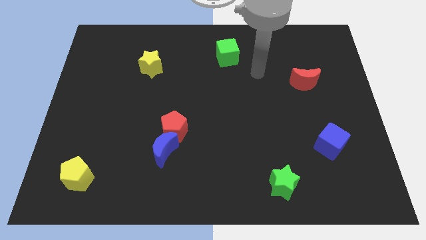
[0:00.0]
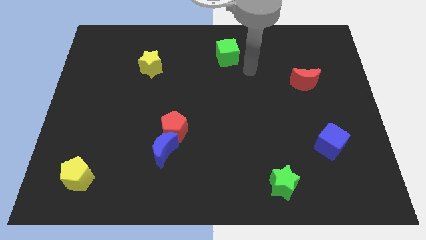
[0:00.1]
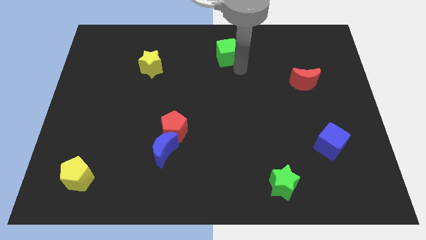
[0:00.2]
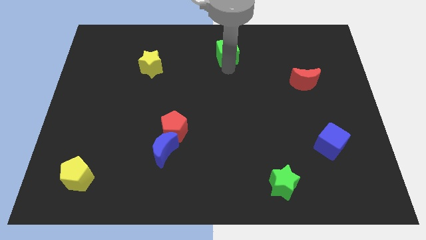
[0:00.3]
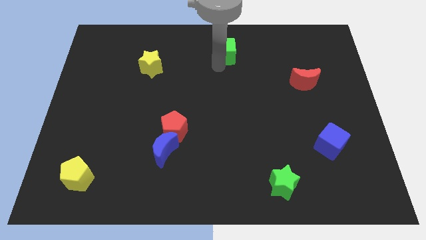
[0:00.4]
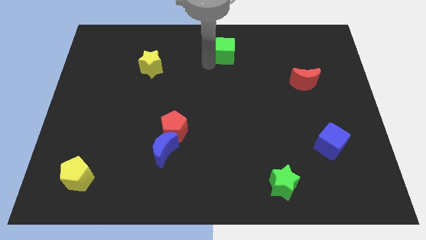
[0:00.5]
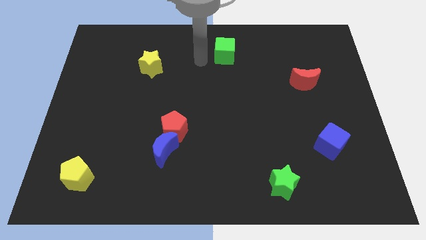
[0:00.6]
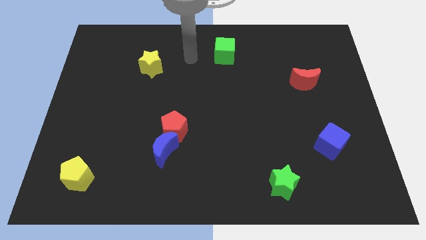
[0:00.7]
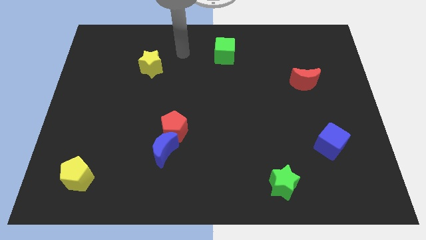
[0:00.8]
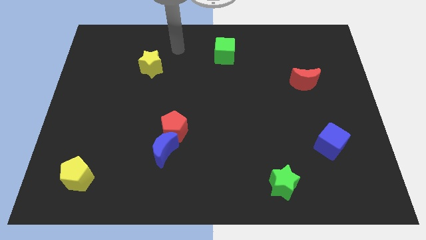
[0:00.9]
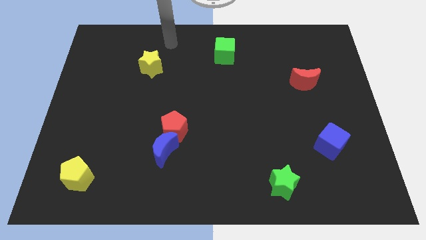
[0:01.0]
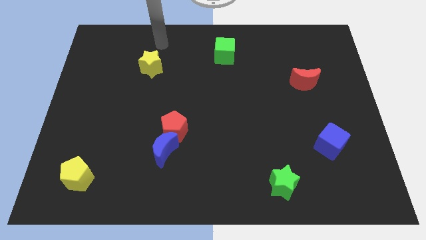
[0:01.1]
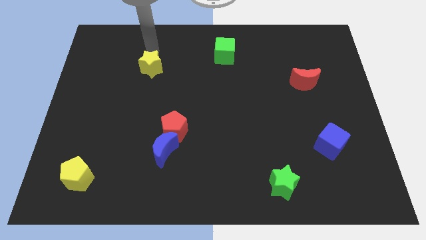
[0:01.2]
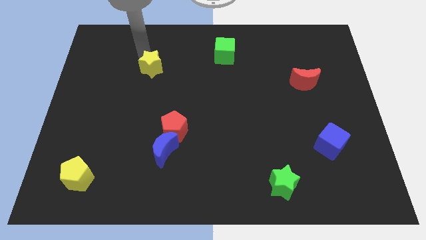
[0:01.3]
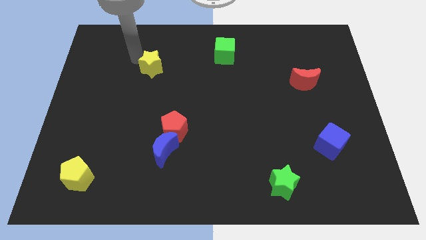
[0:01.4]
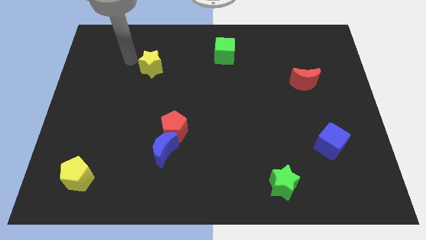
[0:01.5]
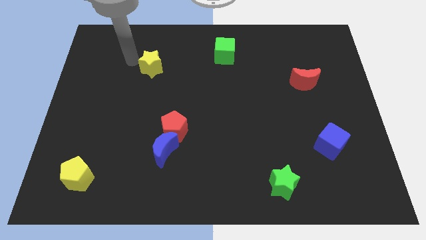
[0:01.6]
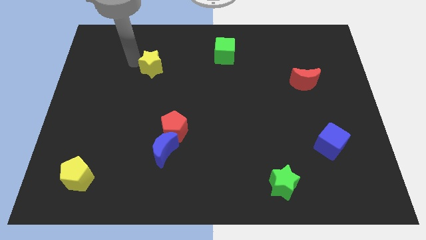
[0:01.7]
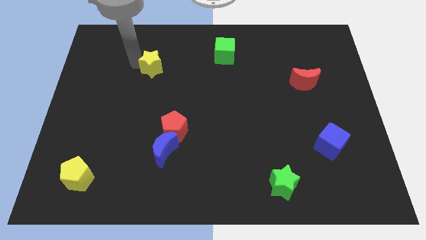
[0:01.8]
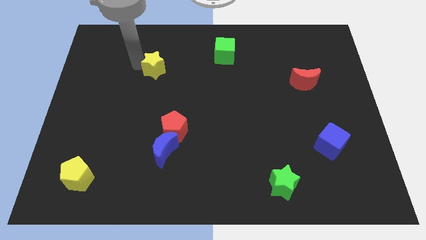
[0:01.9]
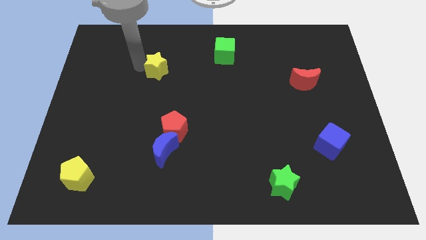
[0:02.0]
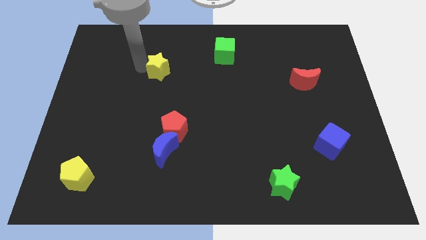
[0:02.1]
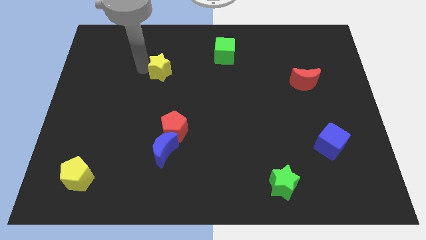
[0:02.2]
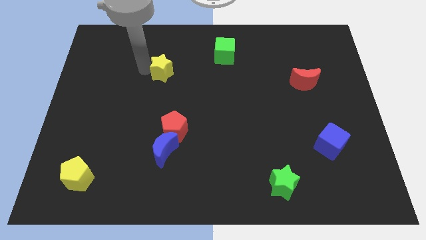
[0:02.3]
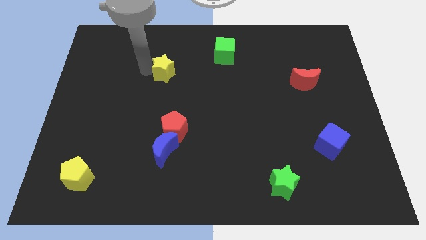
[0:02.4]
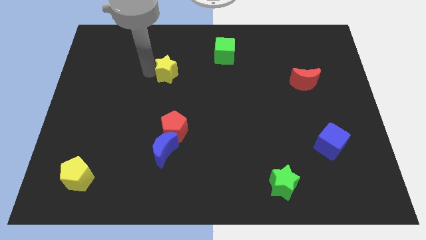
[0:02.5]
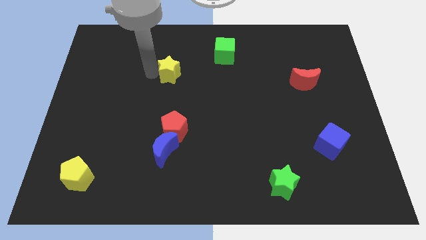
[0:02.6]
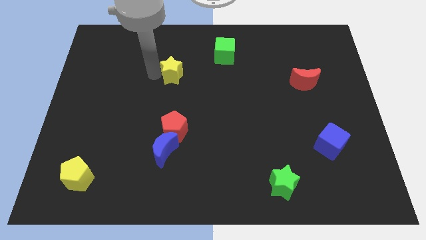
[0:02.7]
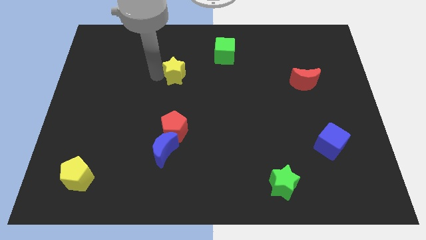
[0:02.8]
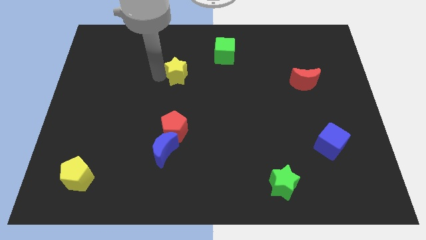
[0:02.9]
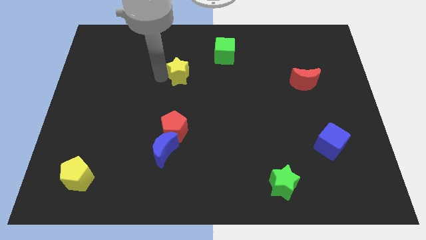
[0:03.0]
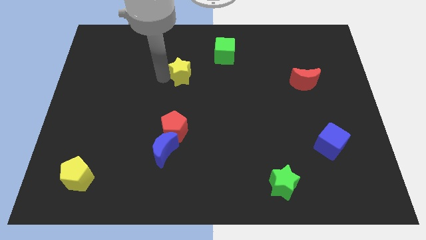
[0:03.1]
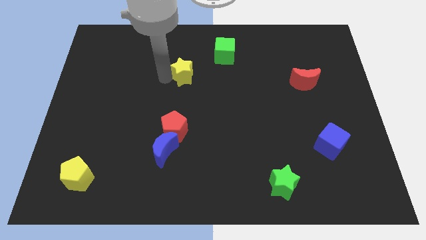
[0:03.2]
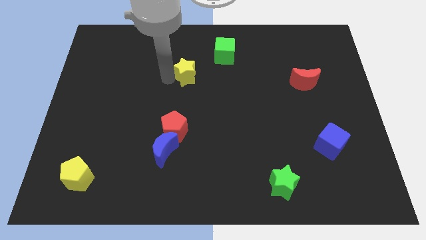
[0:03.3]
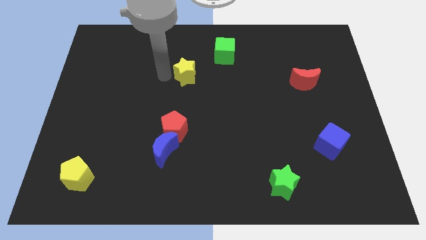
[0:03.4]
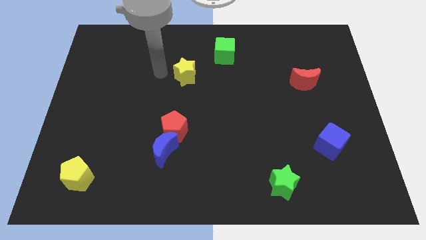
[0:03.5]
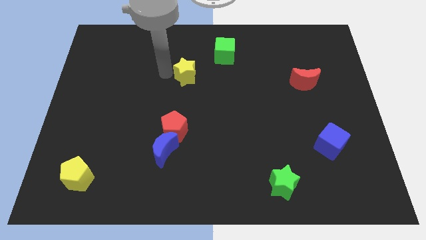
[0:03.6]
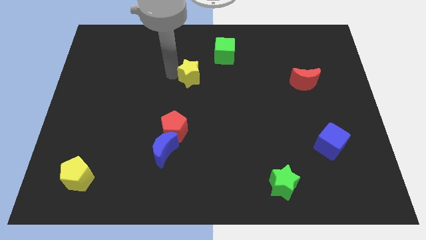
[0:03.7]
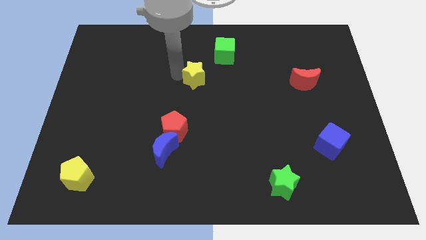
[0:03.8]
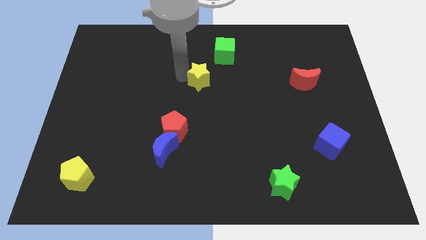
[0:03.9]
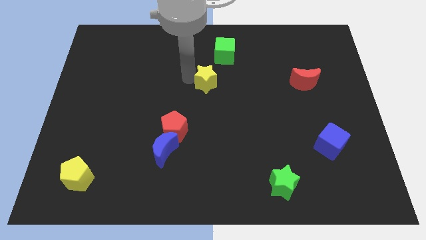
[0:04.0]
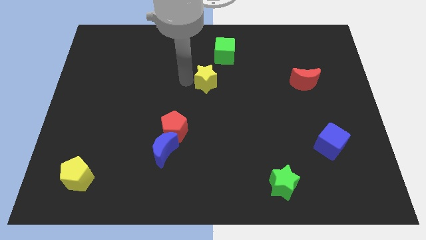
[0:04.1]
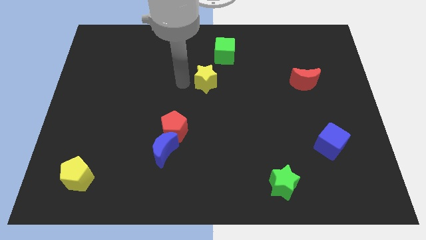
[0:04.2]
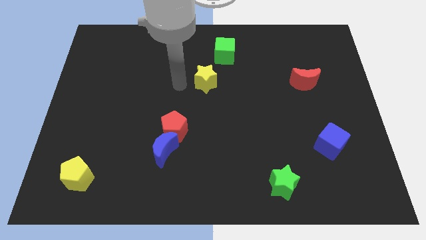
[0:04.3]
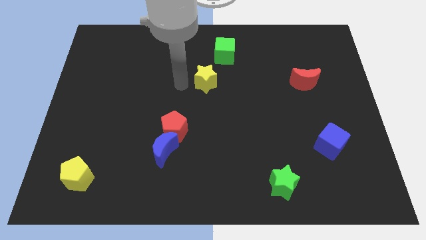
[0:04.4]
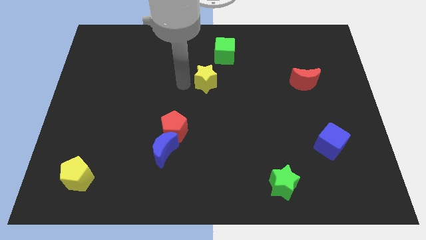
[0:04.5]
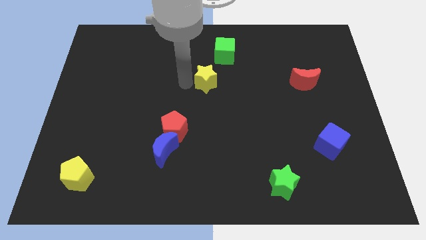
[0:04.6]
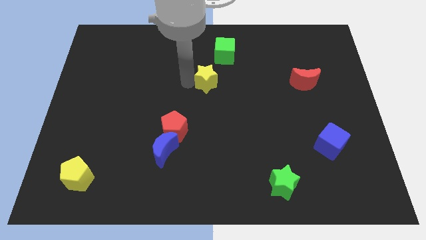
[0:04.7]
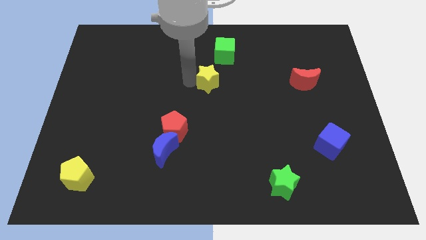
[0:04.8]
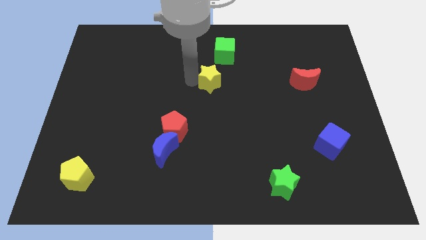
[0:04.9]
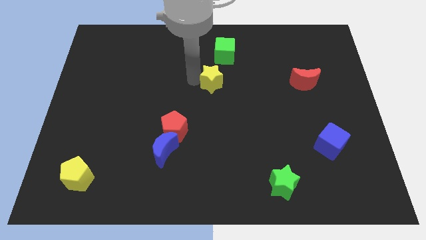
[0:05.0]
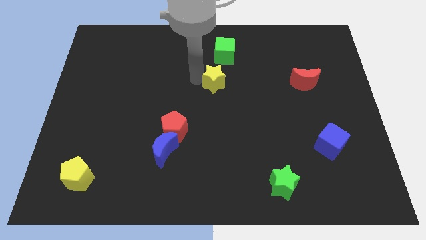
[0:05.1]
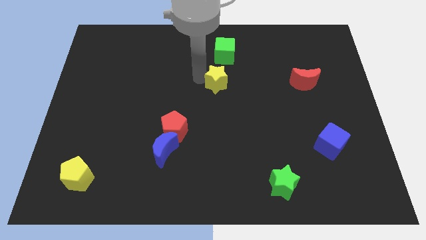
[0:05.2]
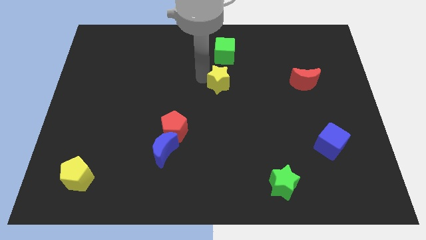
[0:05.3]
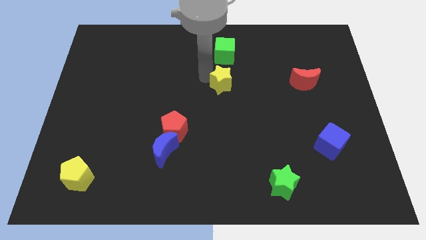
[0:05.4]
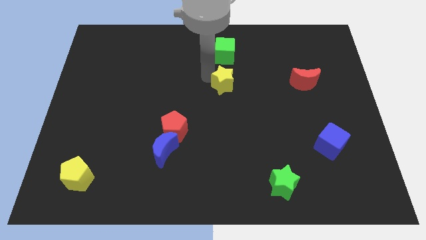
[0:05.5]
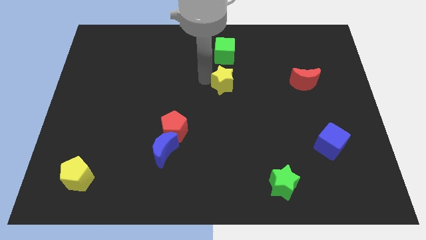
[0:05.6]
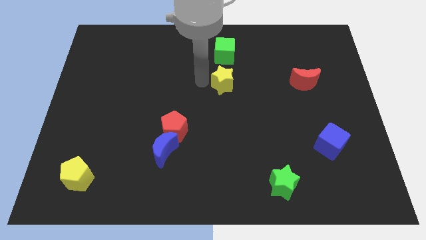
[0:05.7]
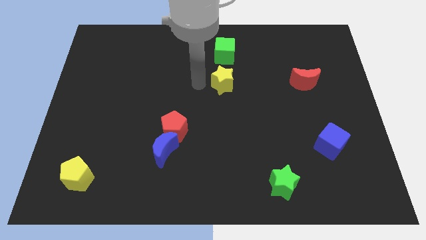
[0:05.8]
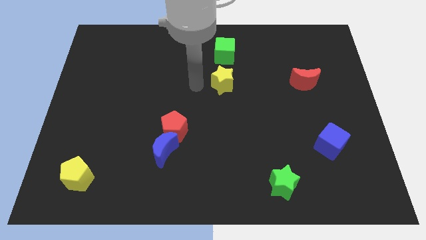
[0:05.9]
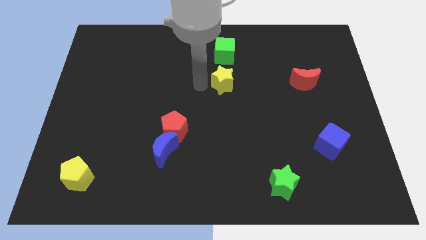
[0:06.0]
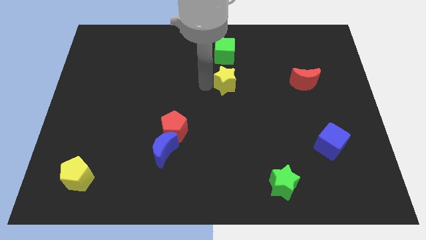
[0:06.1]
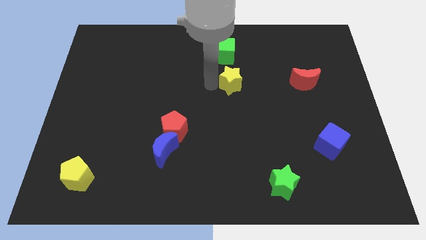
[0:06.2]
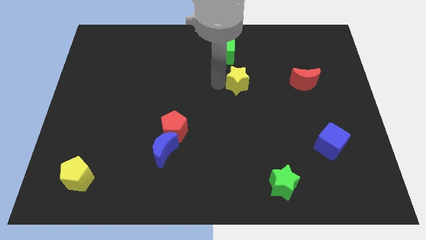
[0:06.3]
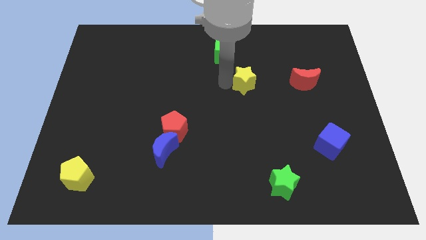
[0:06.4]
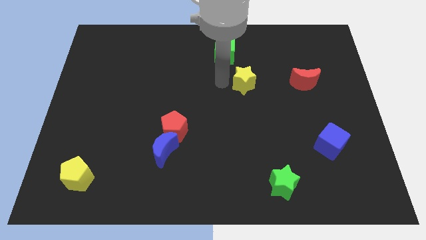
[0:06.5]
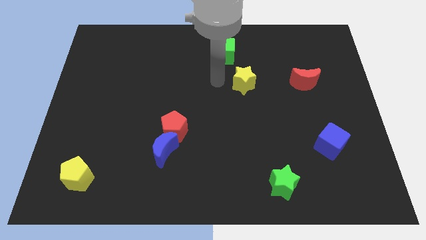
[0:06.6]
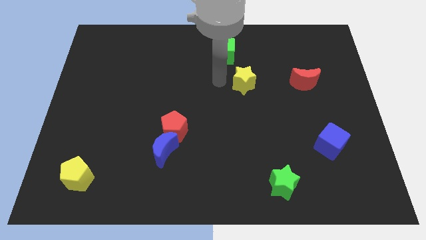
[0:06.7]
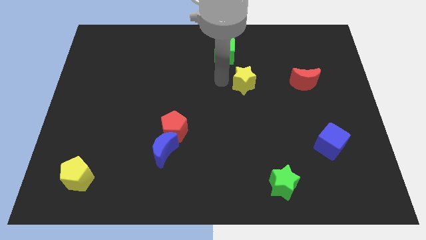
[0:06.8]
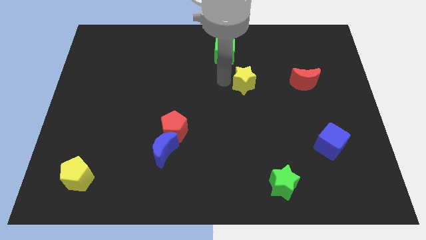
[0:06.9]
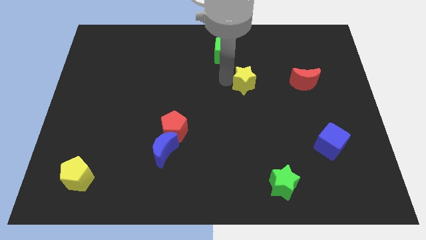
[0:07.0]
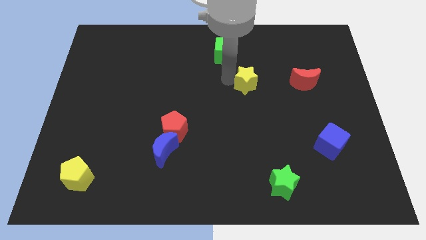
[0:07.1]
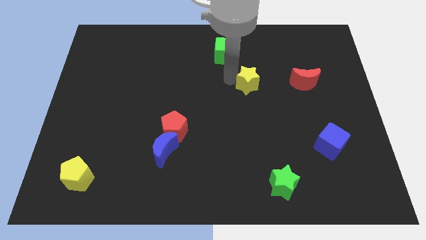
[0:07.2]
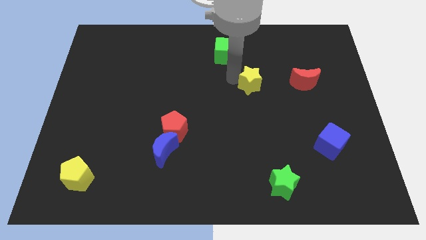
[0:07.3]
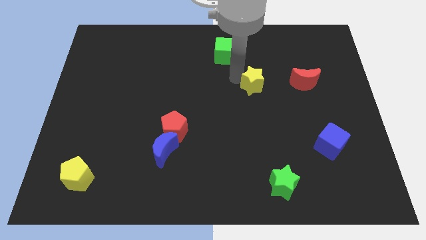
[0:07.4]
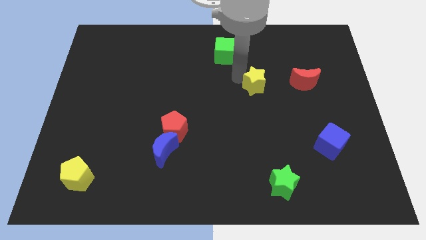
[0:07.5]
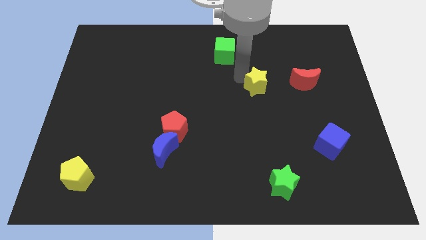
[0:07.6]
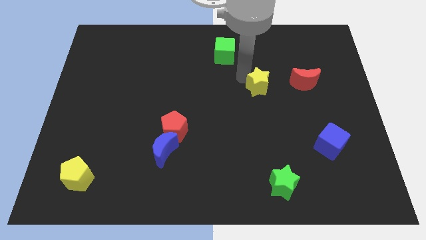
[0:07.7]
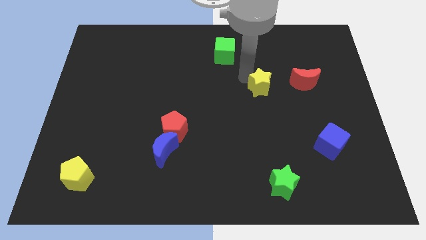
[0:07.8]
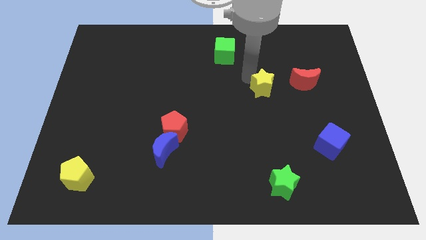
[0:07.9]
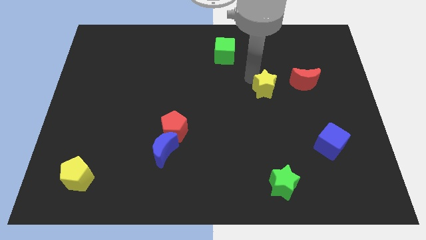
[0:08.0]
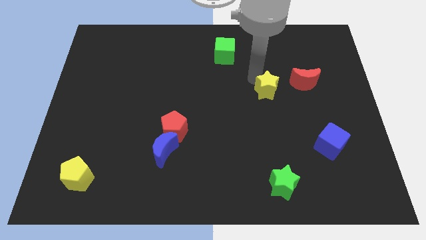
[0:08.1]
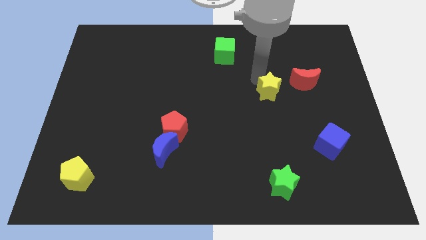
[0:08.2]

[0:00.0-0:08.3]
move the yellow star to the bottom left of the red moon
